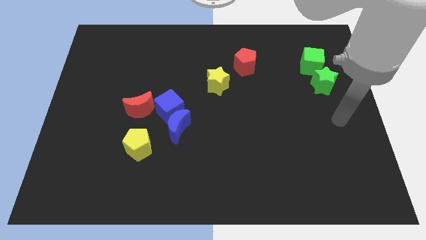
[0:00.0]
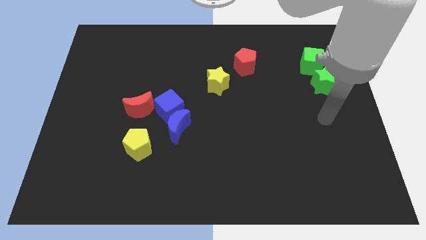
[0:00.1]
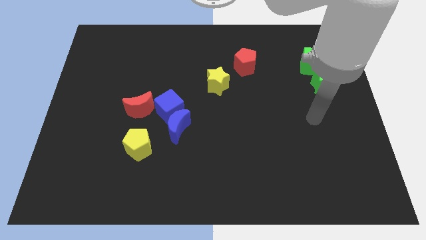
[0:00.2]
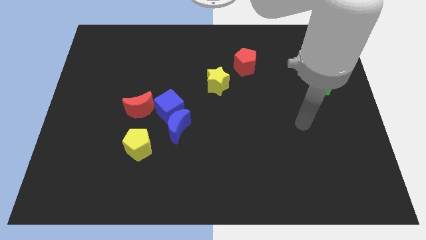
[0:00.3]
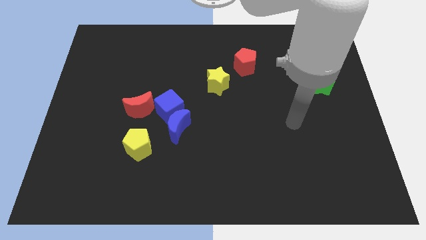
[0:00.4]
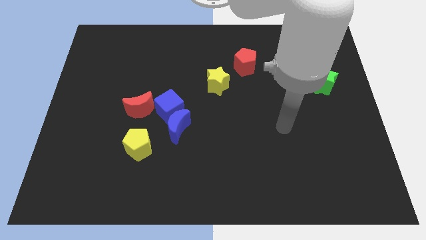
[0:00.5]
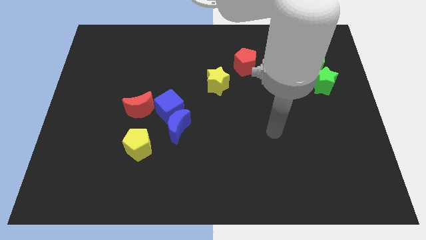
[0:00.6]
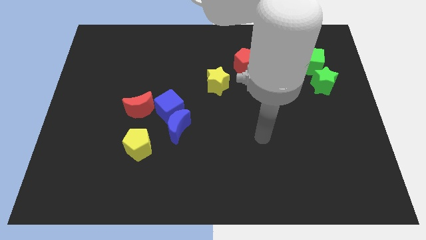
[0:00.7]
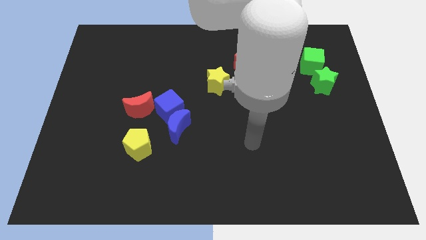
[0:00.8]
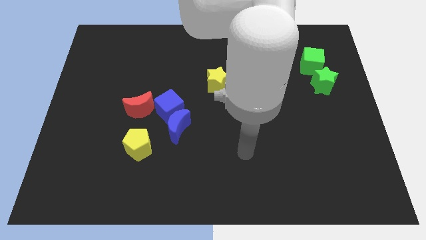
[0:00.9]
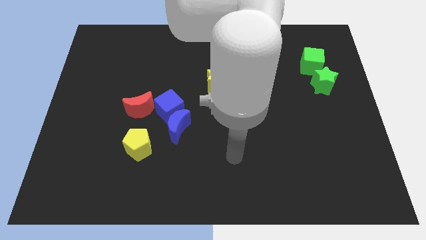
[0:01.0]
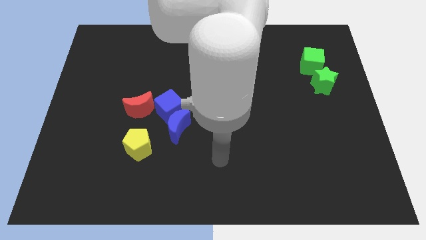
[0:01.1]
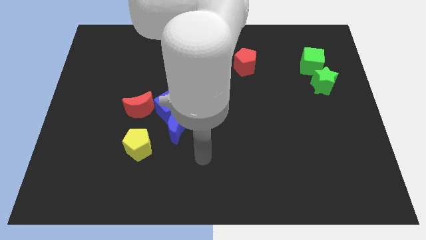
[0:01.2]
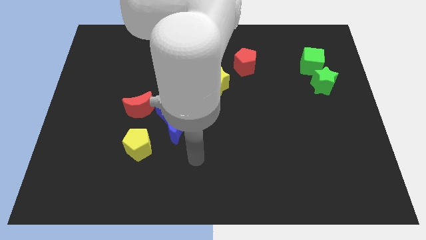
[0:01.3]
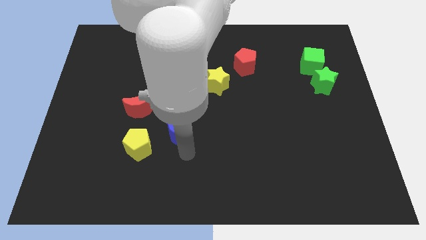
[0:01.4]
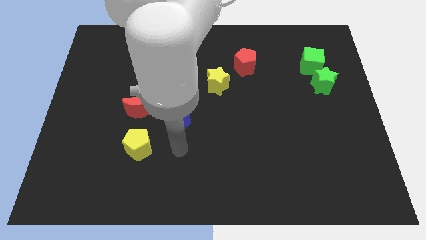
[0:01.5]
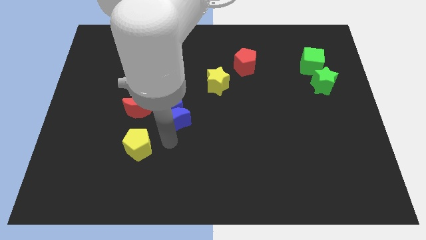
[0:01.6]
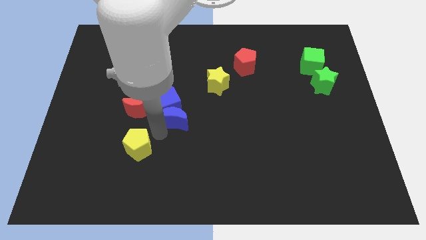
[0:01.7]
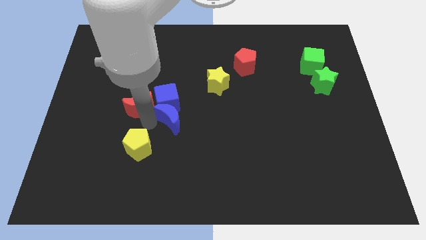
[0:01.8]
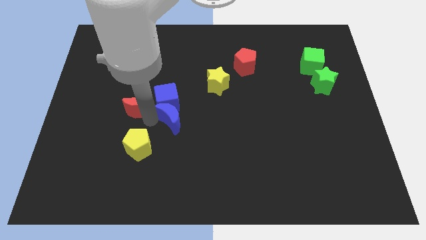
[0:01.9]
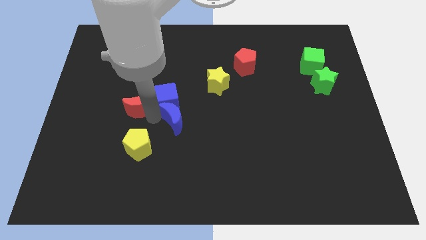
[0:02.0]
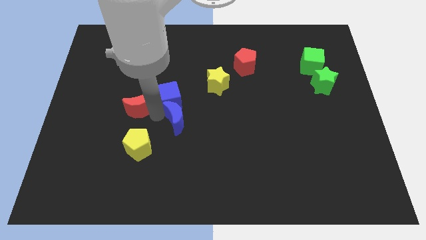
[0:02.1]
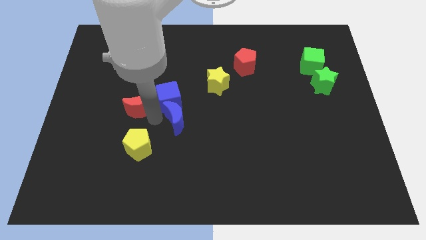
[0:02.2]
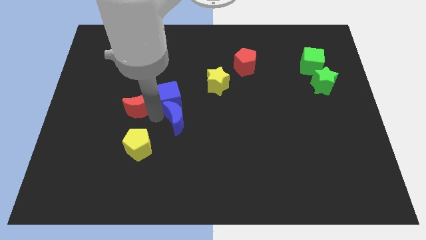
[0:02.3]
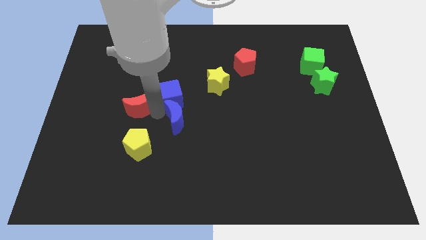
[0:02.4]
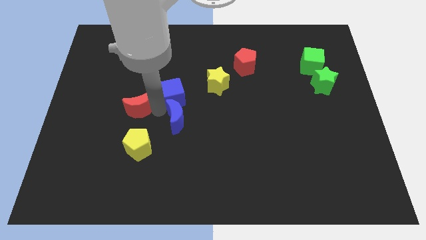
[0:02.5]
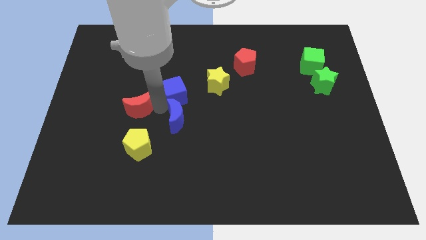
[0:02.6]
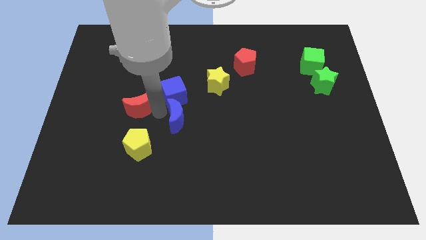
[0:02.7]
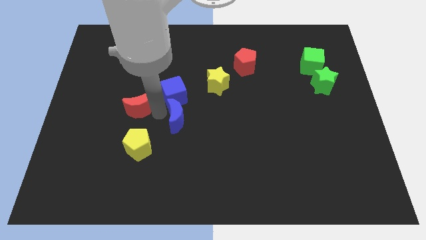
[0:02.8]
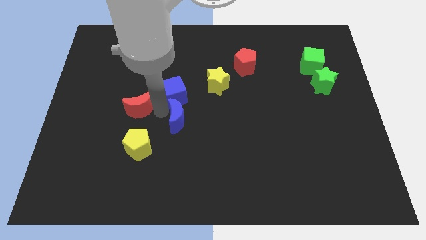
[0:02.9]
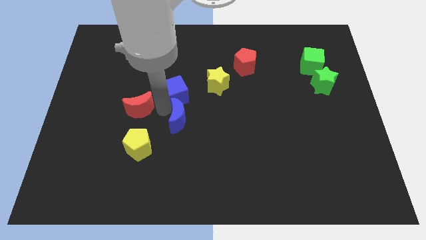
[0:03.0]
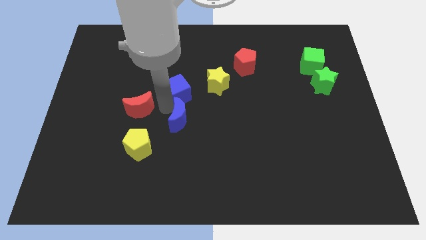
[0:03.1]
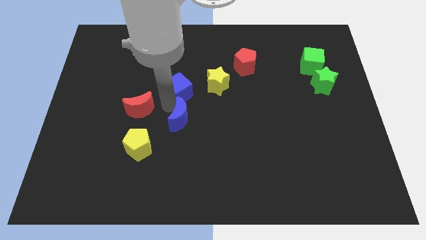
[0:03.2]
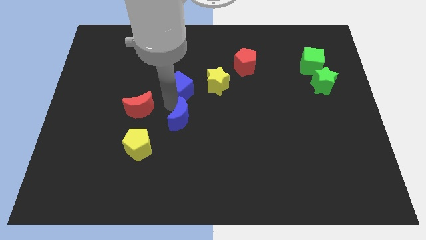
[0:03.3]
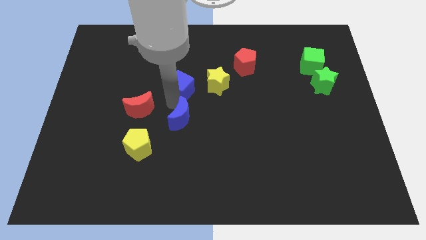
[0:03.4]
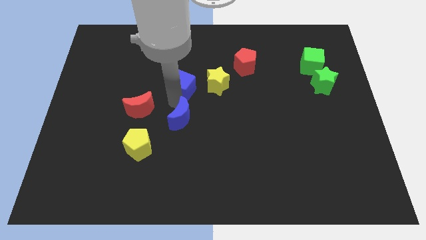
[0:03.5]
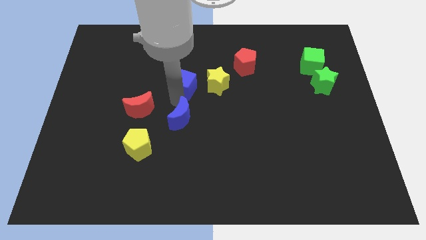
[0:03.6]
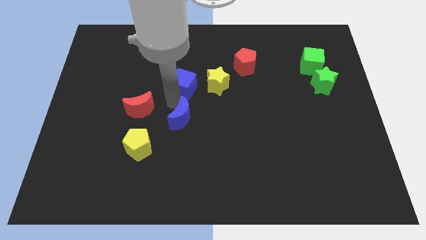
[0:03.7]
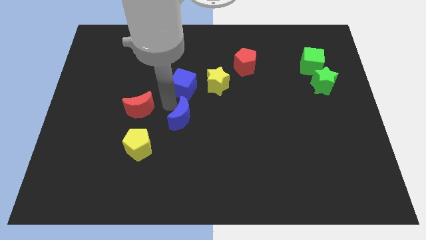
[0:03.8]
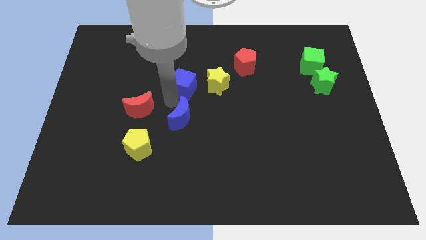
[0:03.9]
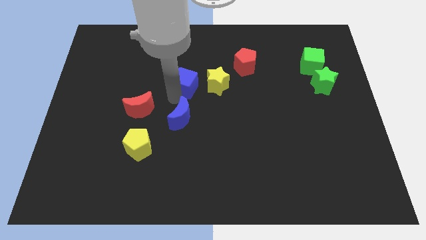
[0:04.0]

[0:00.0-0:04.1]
separate the blue cube from the blue moon and red moon

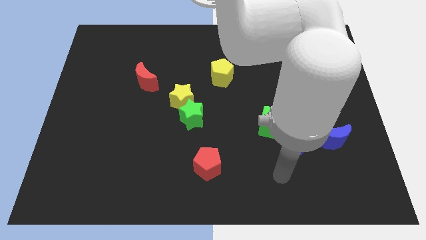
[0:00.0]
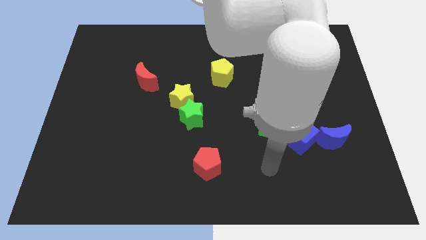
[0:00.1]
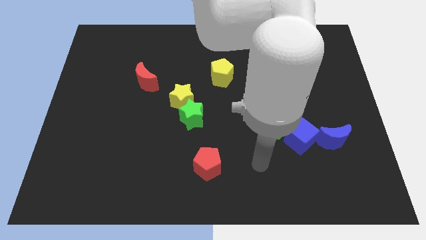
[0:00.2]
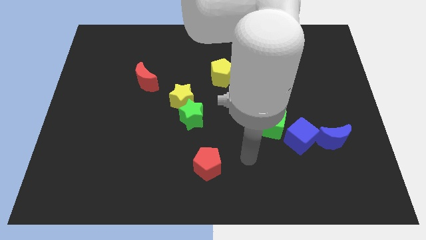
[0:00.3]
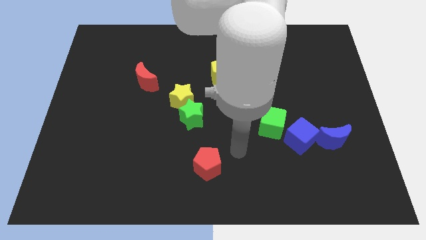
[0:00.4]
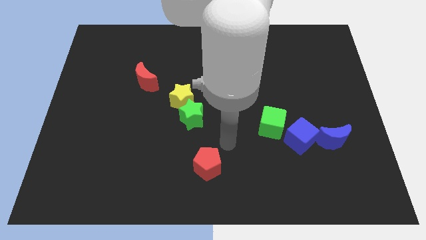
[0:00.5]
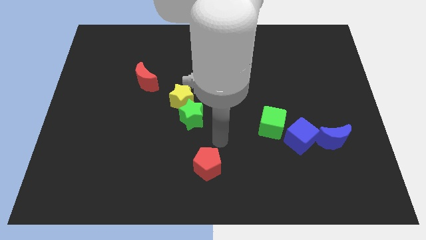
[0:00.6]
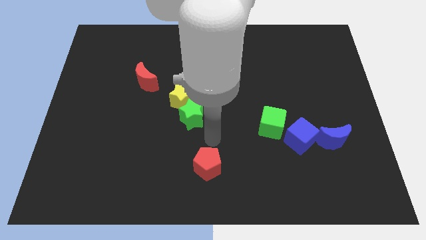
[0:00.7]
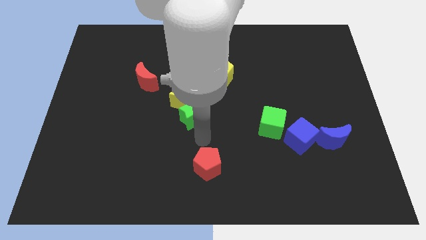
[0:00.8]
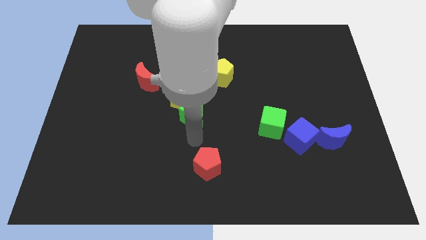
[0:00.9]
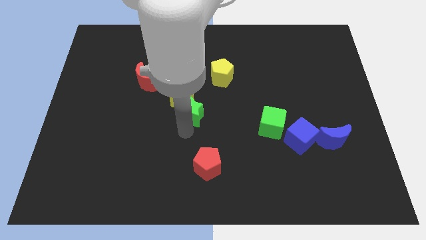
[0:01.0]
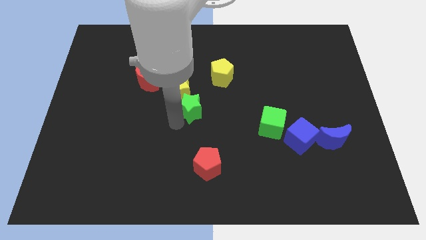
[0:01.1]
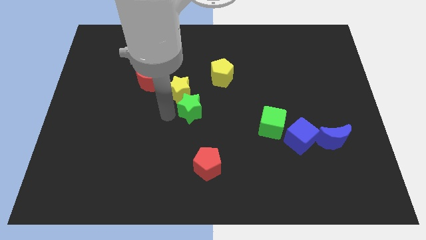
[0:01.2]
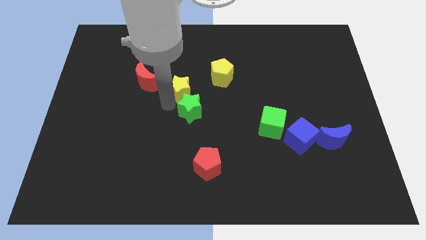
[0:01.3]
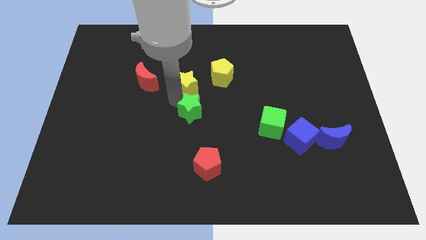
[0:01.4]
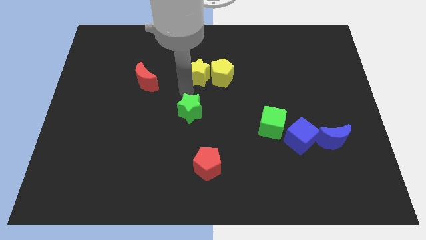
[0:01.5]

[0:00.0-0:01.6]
move the green star away from the yellow star

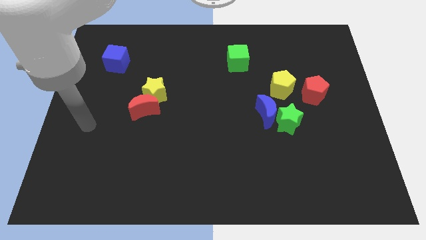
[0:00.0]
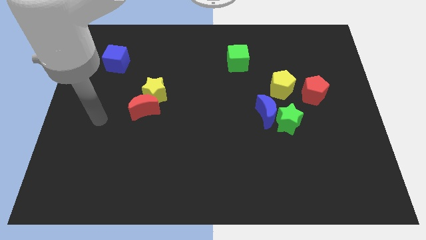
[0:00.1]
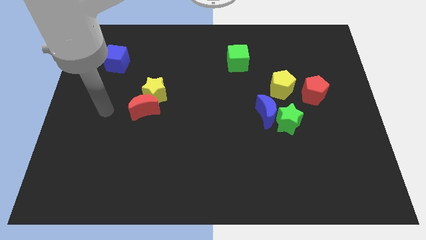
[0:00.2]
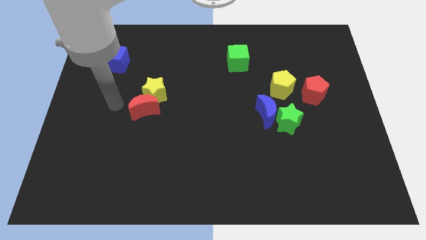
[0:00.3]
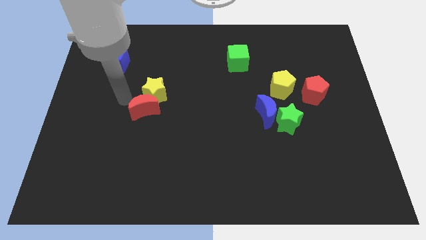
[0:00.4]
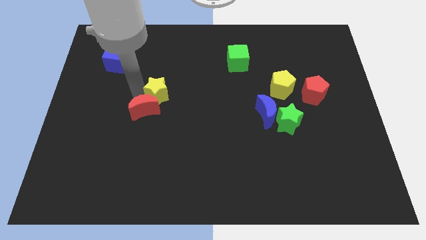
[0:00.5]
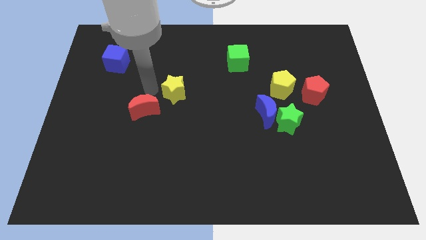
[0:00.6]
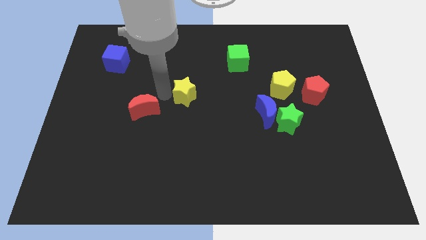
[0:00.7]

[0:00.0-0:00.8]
separate the red moon from the yellow star

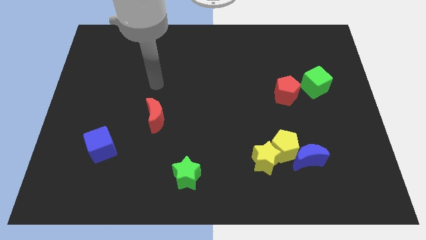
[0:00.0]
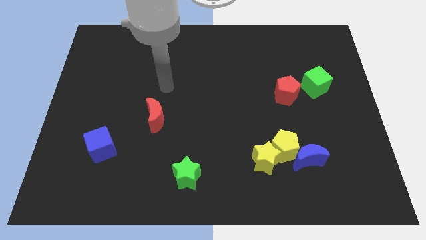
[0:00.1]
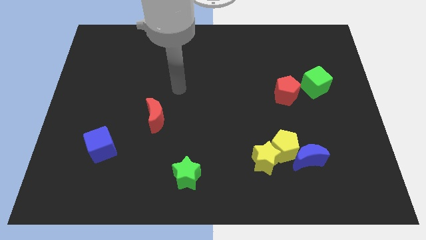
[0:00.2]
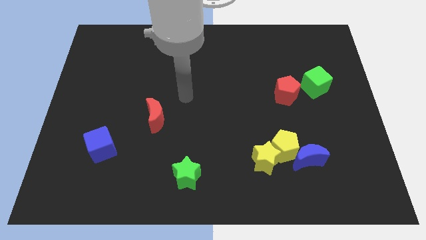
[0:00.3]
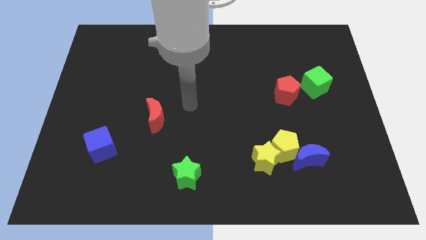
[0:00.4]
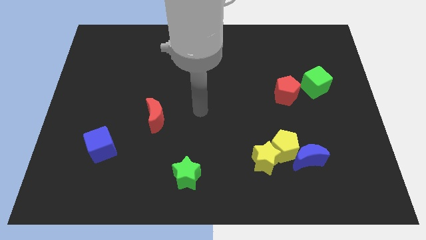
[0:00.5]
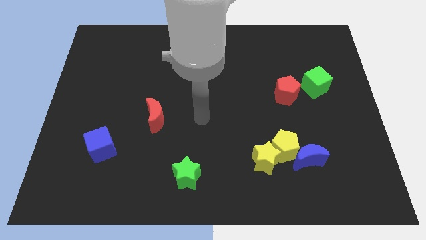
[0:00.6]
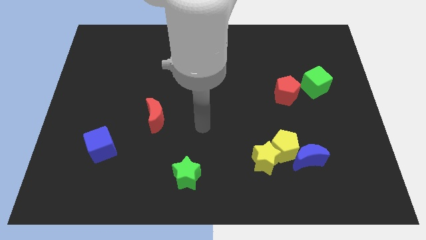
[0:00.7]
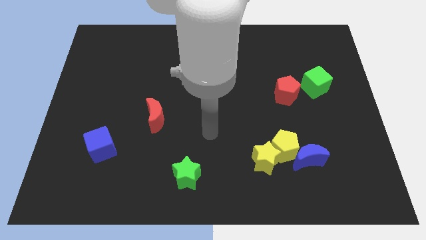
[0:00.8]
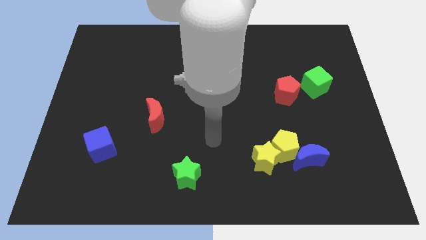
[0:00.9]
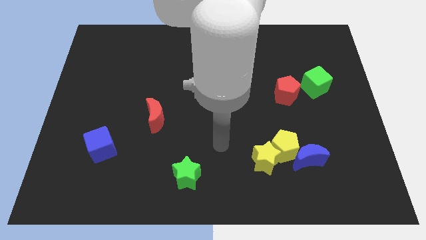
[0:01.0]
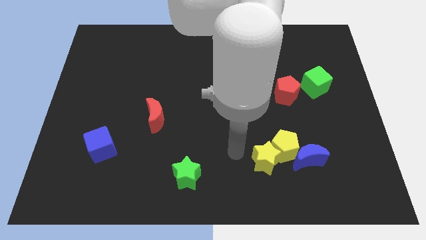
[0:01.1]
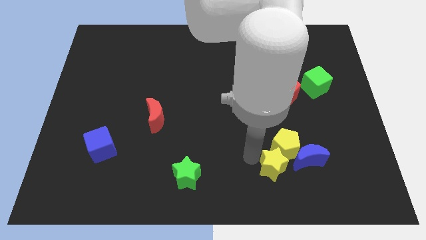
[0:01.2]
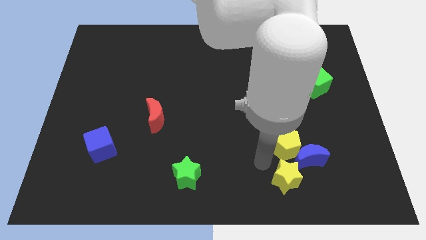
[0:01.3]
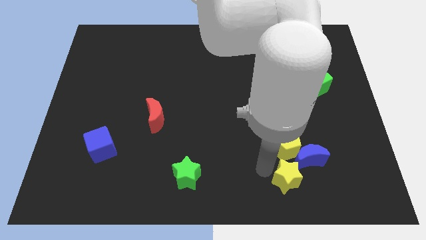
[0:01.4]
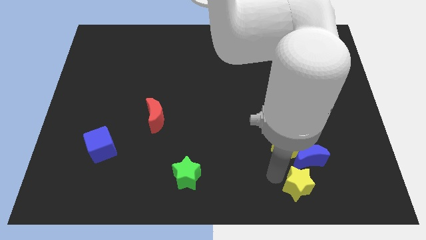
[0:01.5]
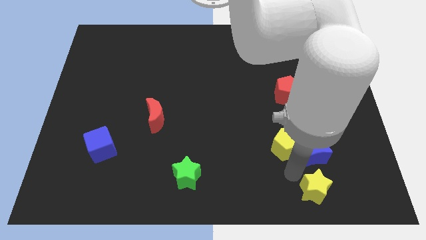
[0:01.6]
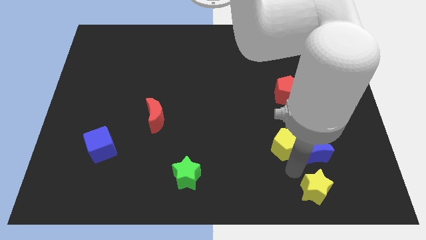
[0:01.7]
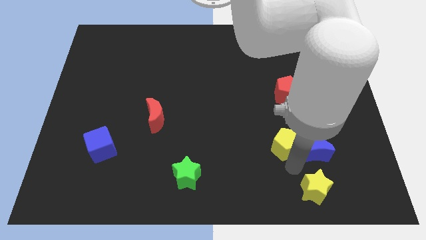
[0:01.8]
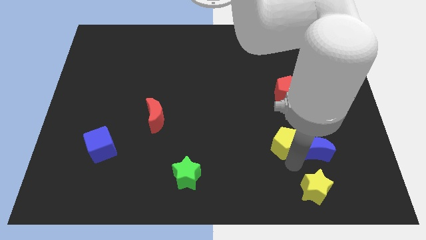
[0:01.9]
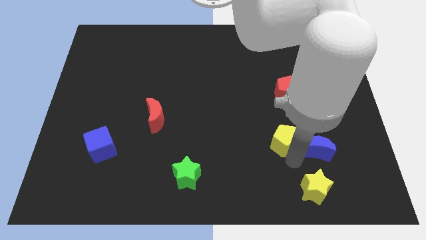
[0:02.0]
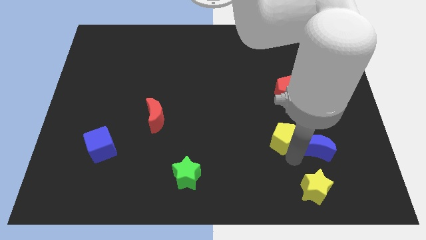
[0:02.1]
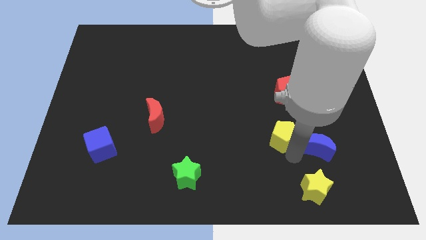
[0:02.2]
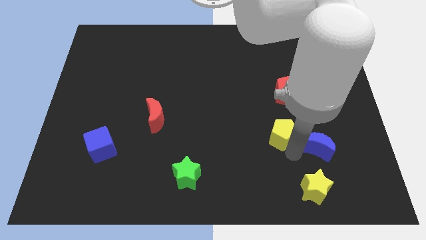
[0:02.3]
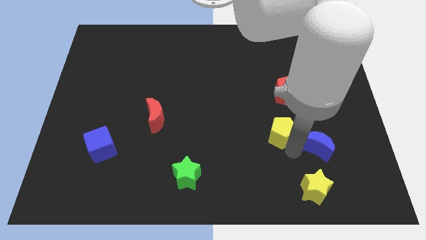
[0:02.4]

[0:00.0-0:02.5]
separate the yellow pentagon from the blue moon and yellow star

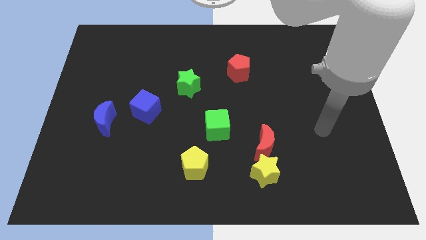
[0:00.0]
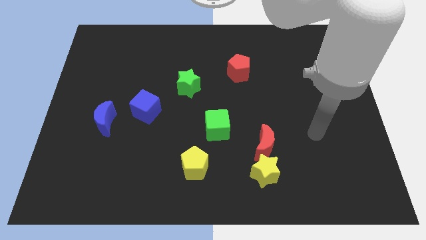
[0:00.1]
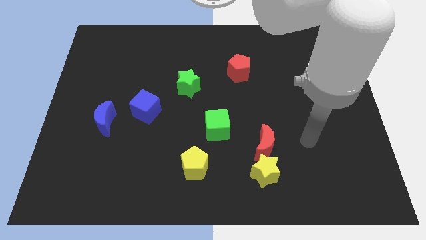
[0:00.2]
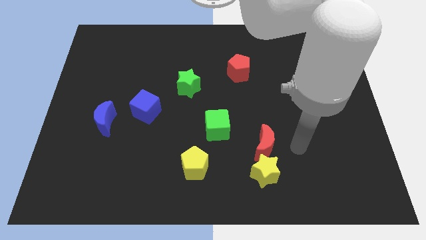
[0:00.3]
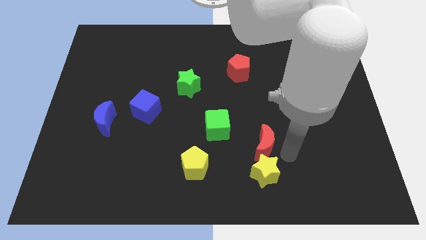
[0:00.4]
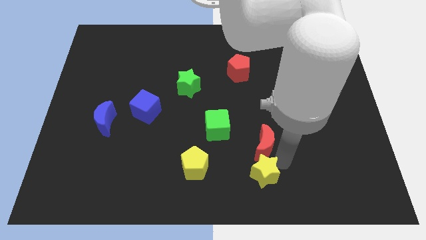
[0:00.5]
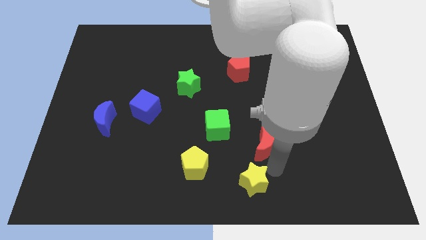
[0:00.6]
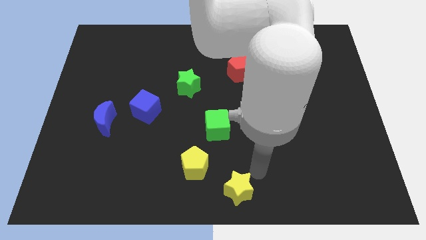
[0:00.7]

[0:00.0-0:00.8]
pull the red moon apart from the yellow star
